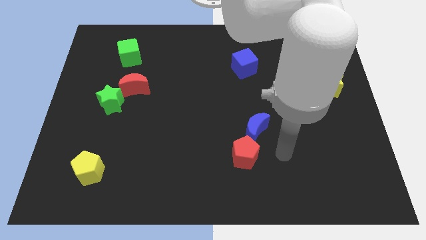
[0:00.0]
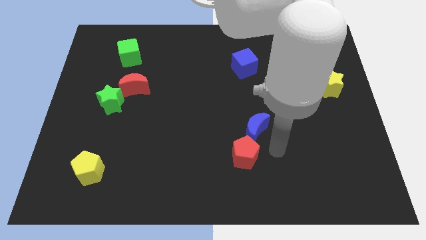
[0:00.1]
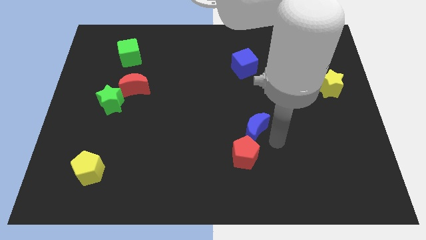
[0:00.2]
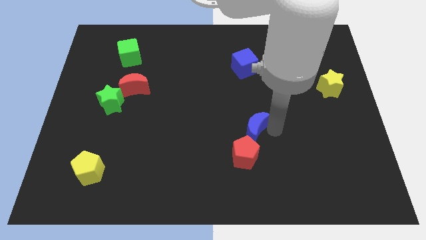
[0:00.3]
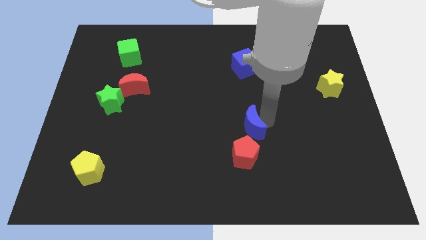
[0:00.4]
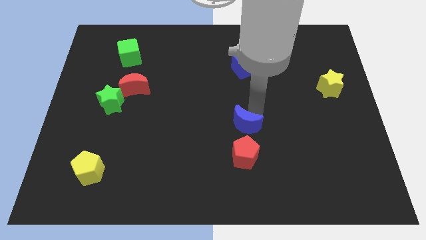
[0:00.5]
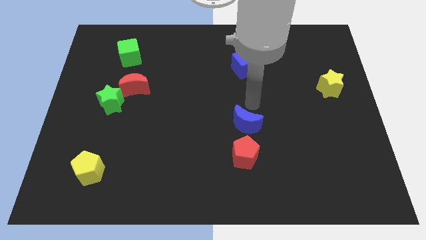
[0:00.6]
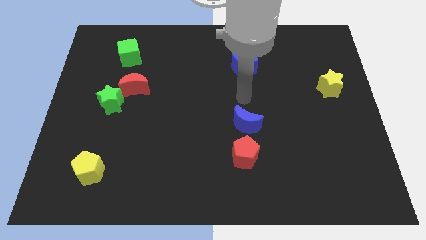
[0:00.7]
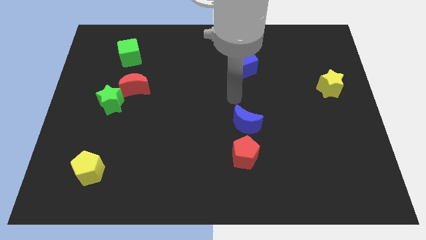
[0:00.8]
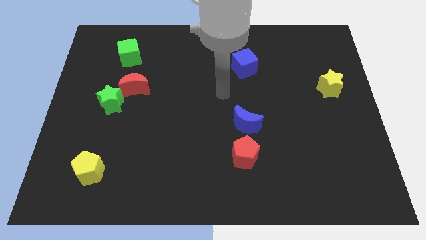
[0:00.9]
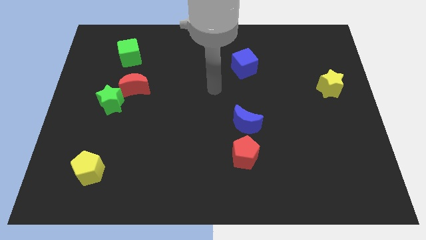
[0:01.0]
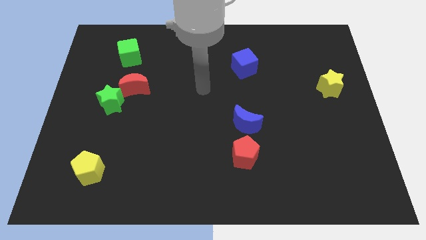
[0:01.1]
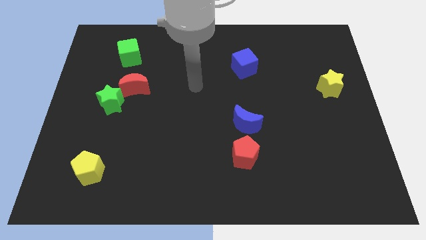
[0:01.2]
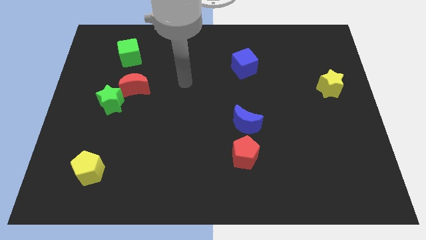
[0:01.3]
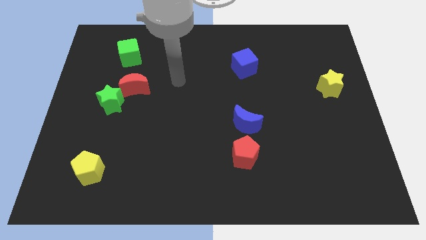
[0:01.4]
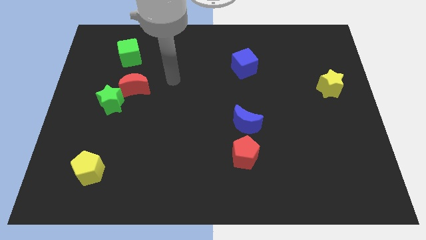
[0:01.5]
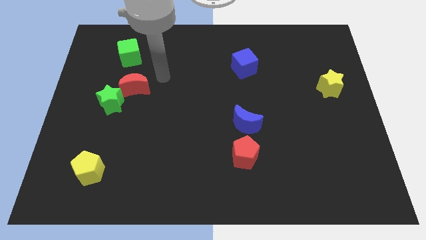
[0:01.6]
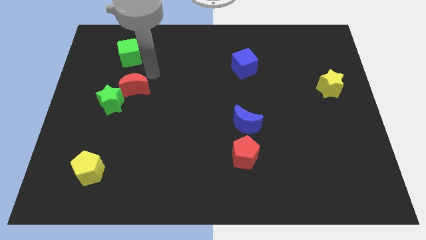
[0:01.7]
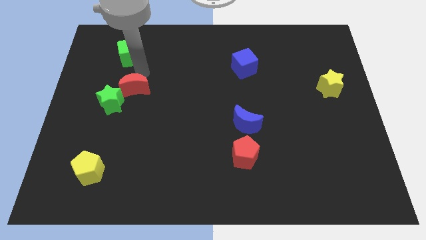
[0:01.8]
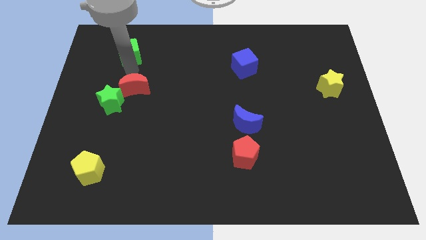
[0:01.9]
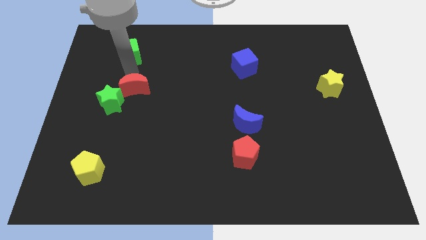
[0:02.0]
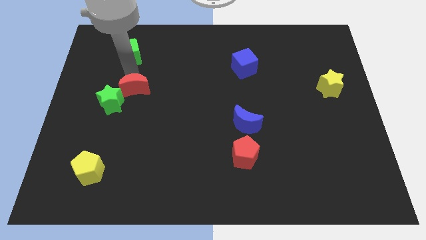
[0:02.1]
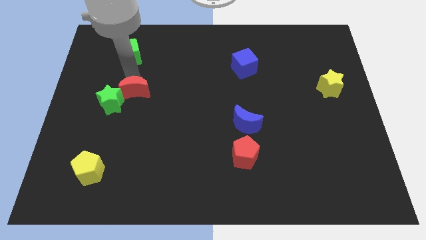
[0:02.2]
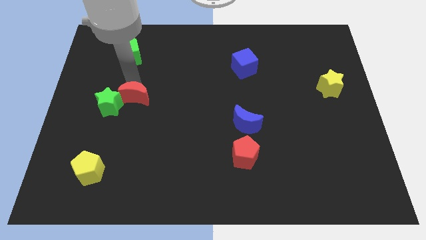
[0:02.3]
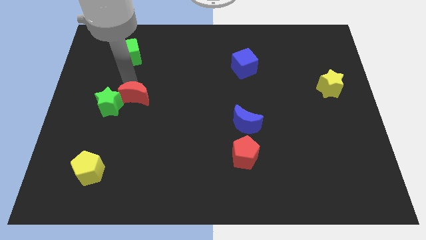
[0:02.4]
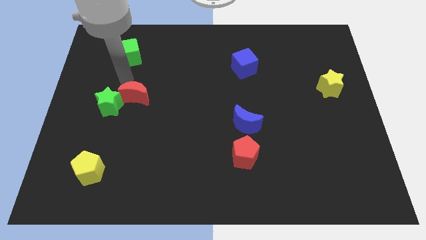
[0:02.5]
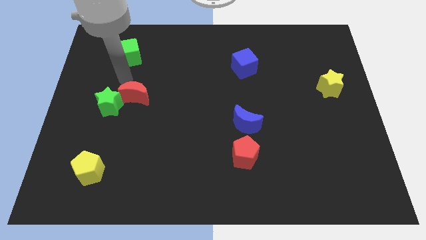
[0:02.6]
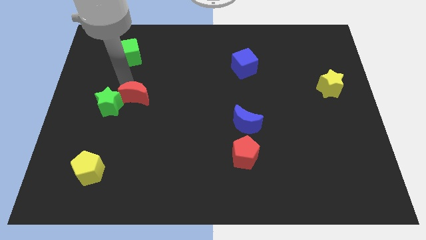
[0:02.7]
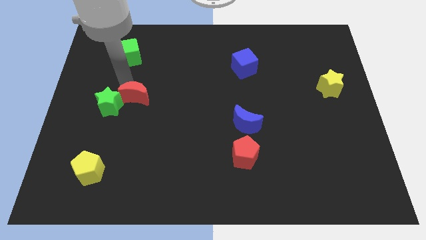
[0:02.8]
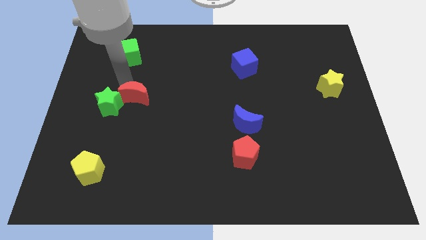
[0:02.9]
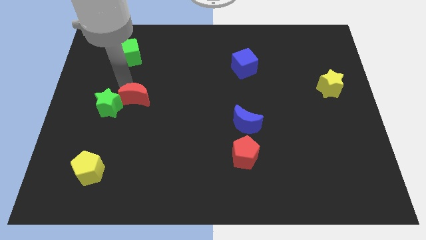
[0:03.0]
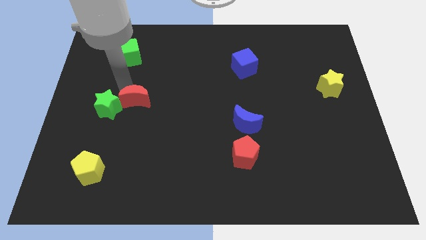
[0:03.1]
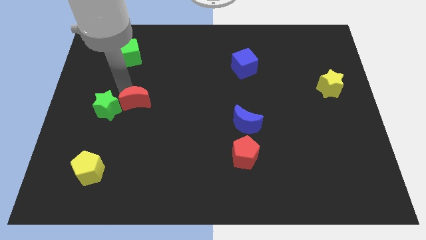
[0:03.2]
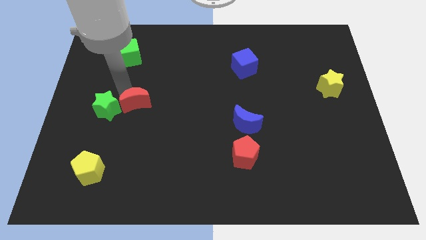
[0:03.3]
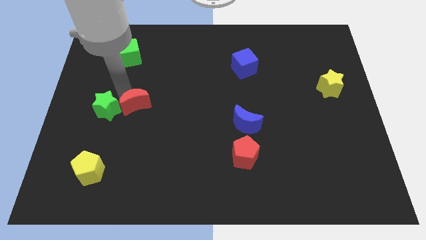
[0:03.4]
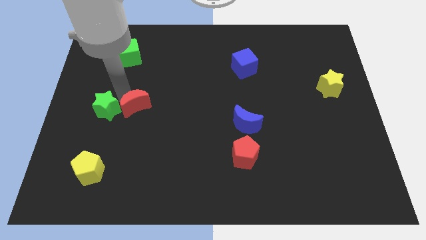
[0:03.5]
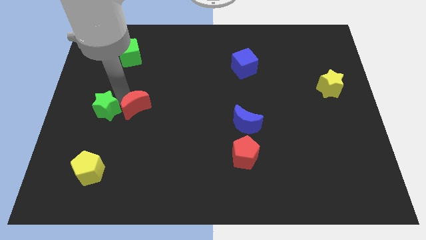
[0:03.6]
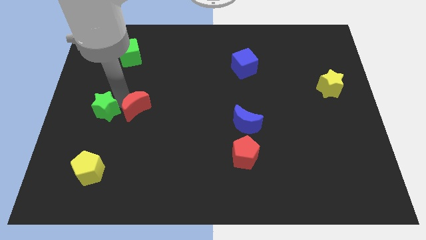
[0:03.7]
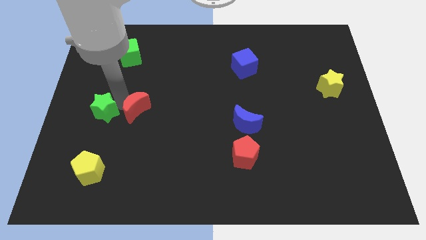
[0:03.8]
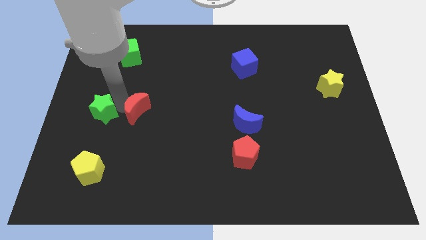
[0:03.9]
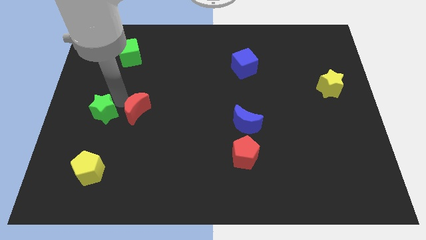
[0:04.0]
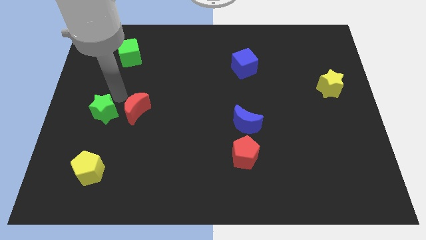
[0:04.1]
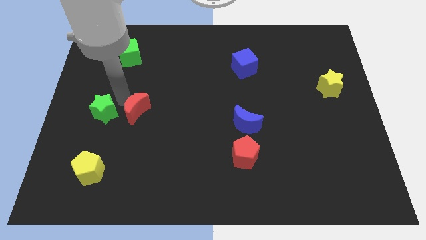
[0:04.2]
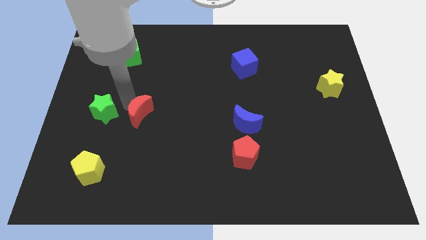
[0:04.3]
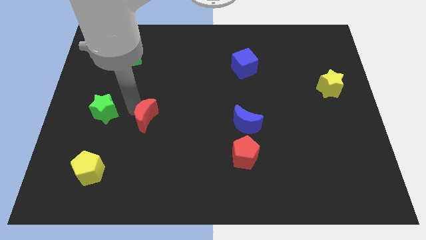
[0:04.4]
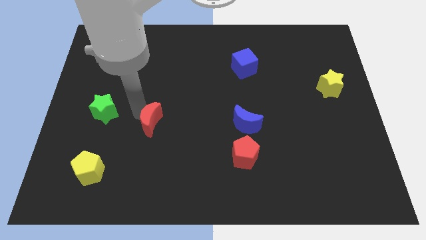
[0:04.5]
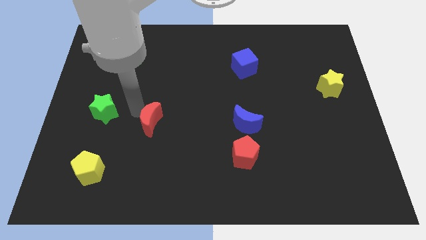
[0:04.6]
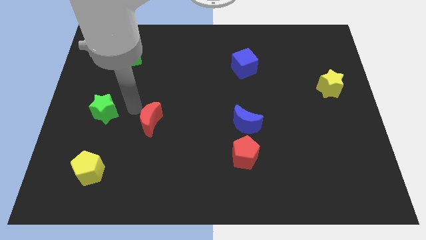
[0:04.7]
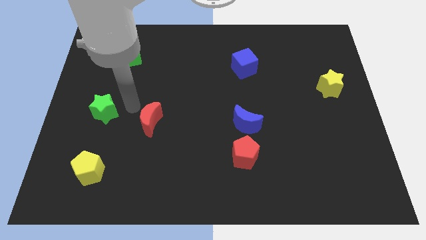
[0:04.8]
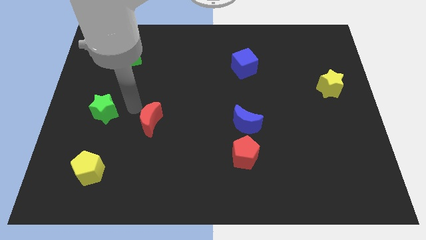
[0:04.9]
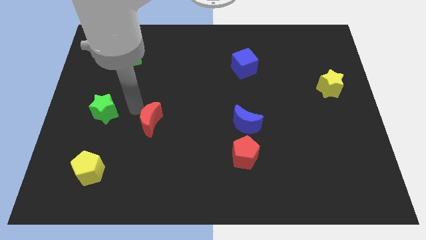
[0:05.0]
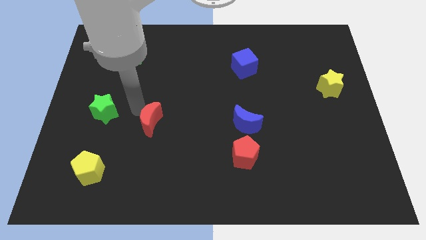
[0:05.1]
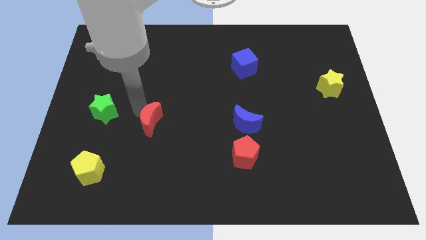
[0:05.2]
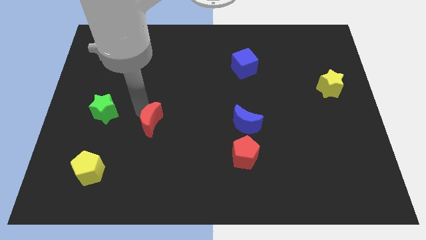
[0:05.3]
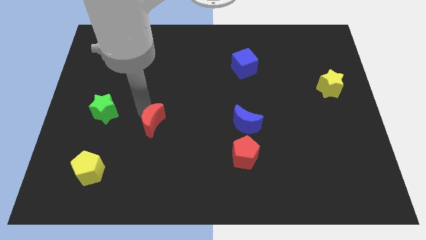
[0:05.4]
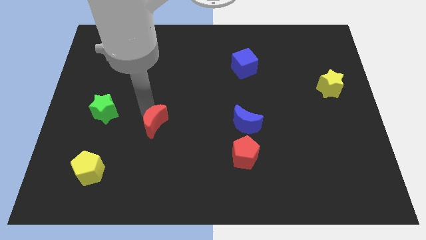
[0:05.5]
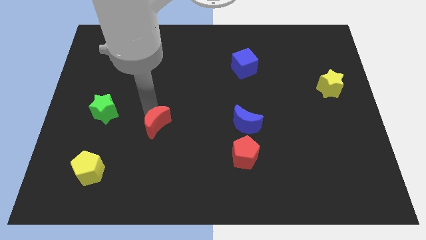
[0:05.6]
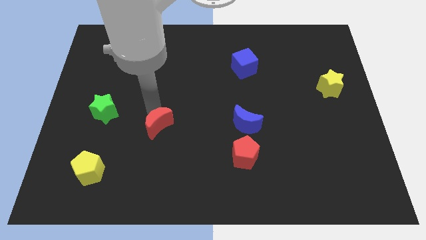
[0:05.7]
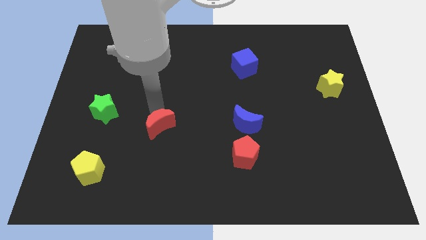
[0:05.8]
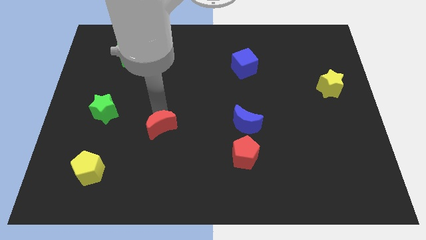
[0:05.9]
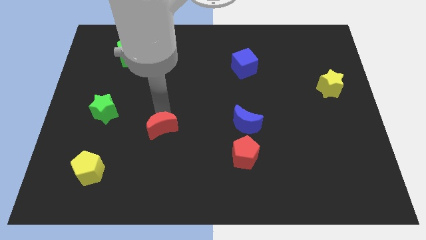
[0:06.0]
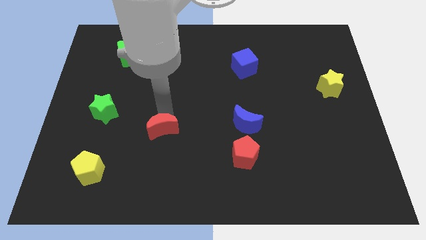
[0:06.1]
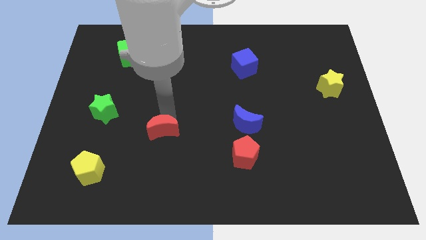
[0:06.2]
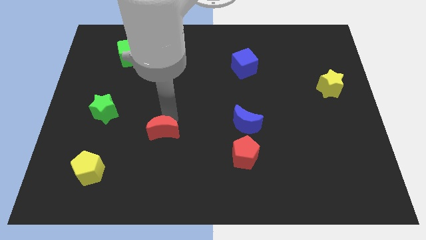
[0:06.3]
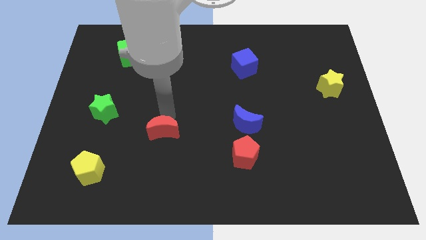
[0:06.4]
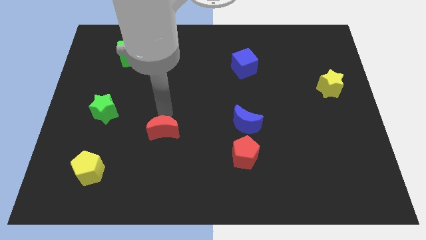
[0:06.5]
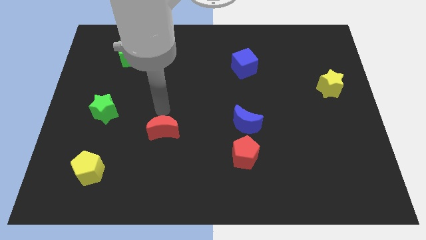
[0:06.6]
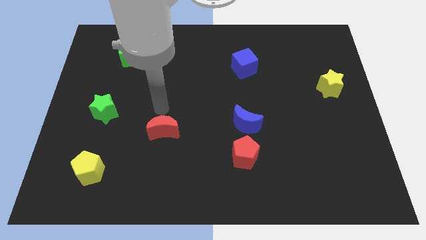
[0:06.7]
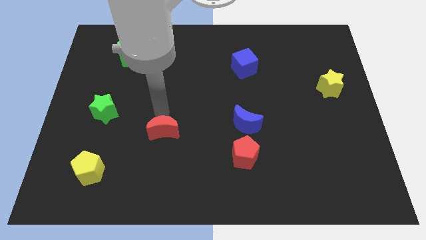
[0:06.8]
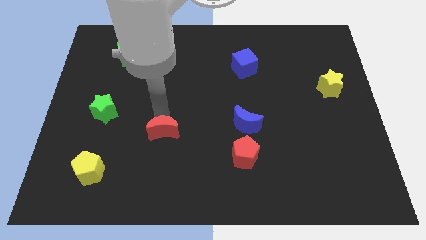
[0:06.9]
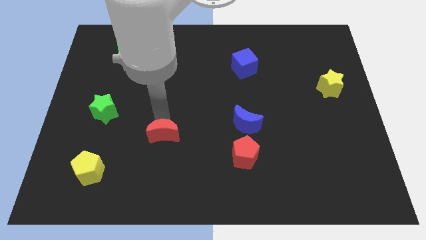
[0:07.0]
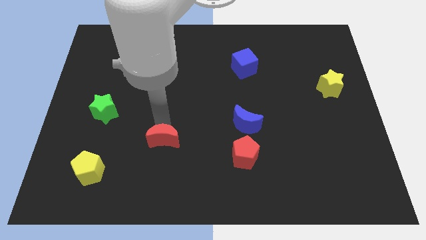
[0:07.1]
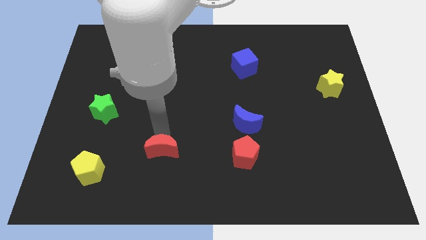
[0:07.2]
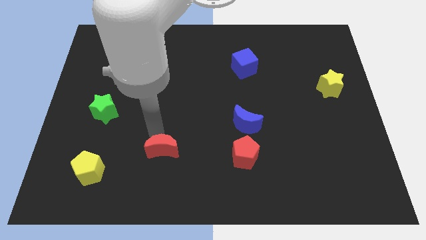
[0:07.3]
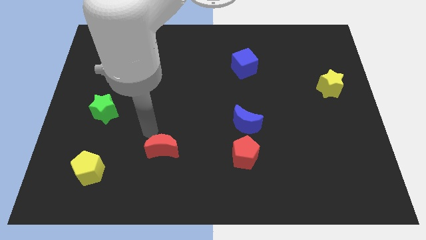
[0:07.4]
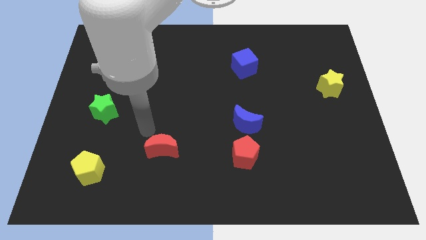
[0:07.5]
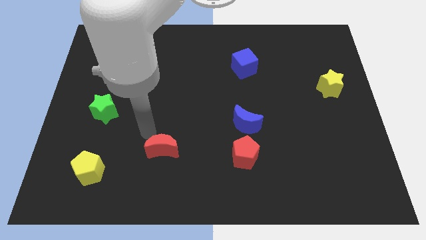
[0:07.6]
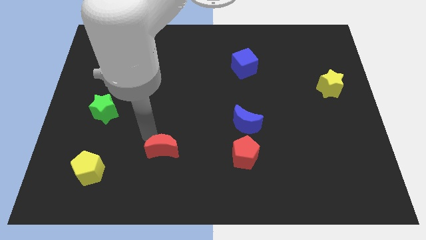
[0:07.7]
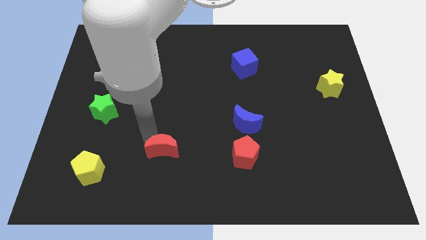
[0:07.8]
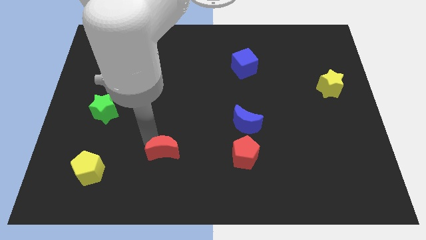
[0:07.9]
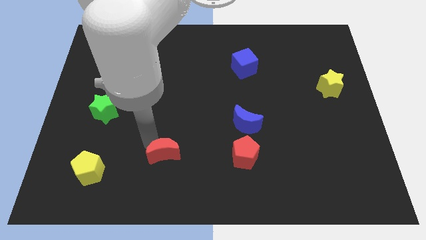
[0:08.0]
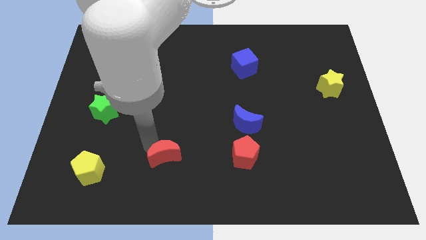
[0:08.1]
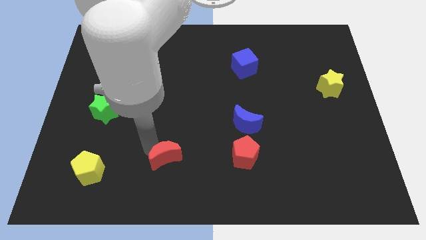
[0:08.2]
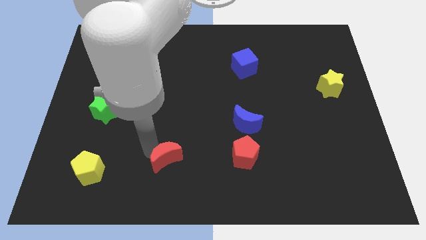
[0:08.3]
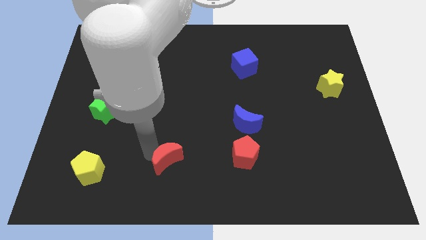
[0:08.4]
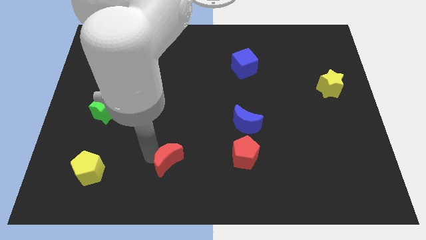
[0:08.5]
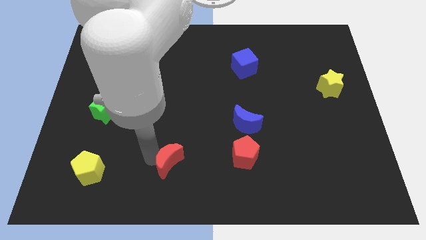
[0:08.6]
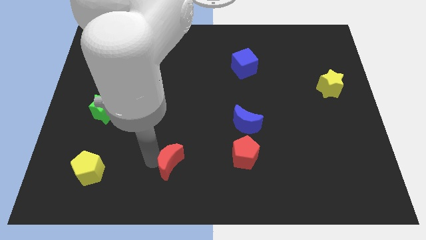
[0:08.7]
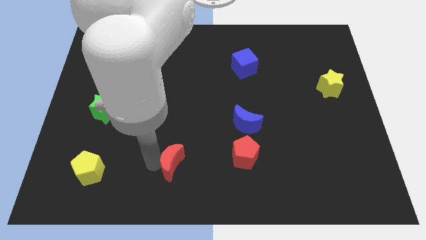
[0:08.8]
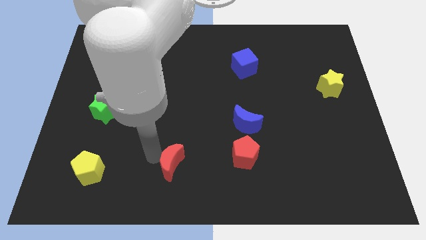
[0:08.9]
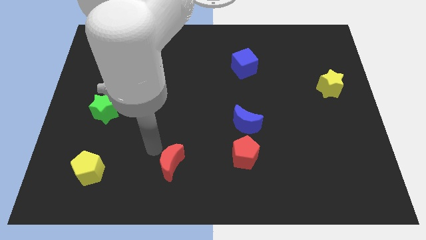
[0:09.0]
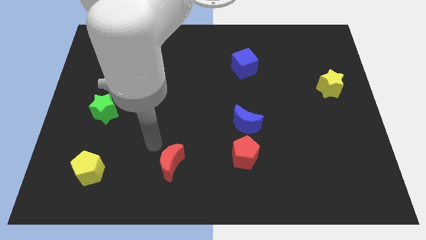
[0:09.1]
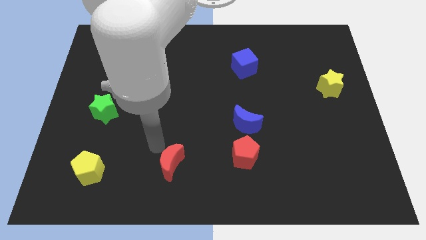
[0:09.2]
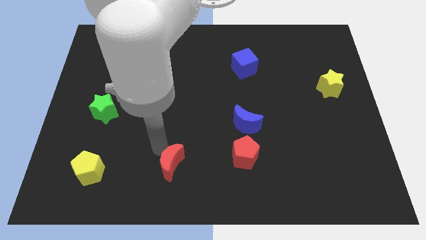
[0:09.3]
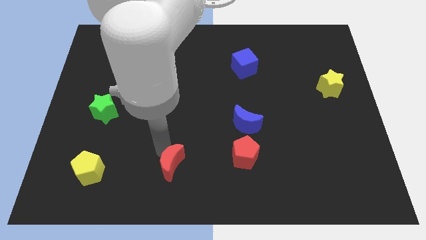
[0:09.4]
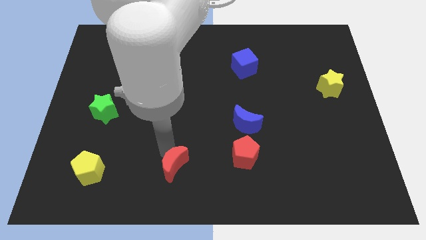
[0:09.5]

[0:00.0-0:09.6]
put the red moon to the bottom side
